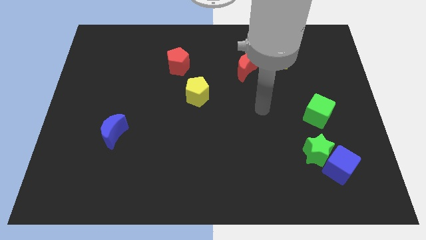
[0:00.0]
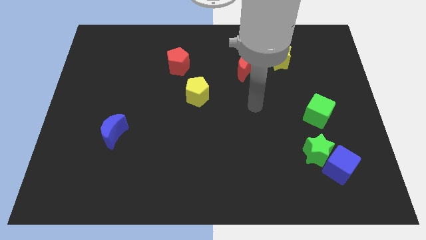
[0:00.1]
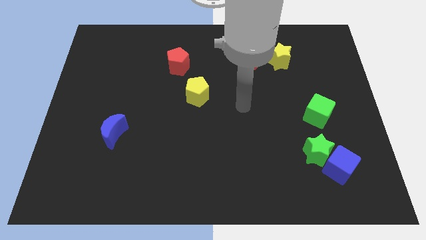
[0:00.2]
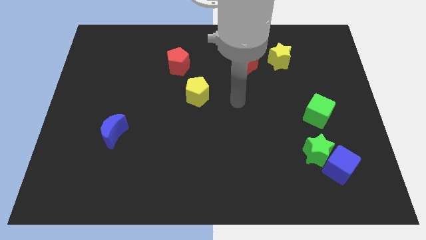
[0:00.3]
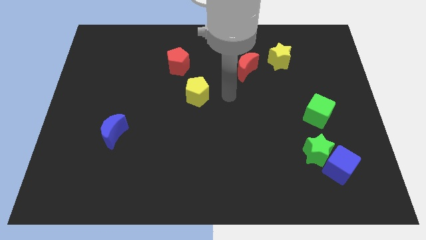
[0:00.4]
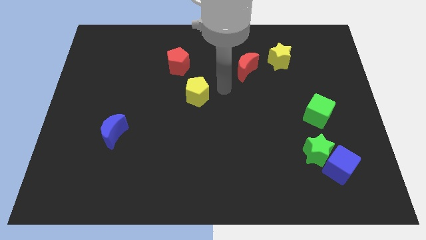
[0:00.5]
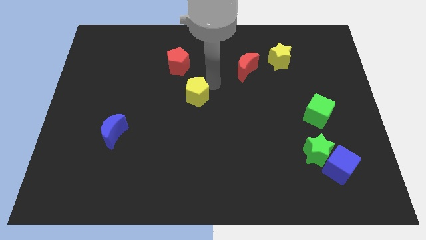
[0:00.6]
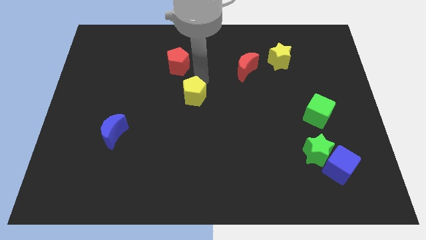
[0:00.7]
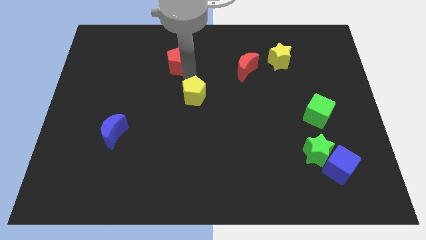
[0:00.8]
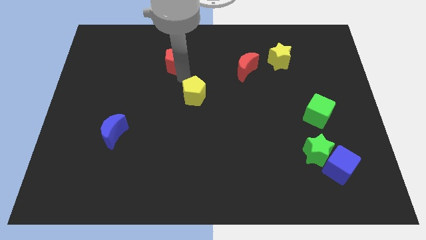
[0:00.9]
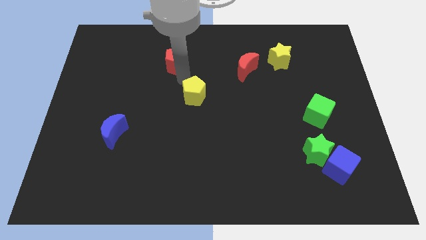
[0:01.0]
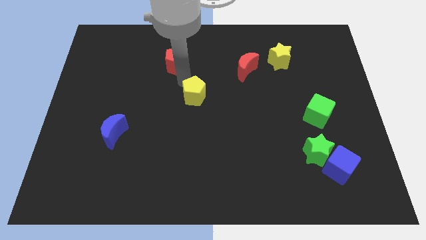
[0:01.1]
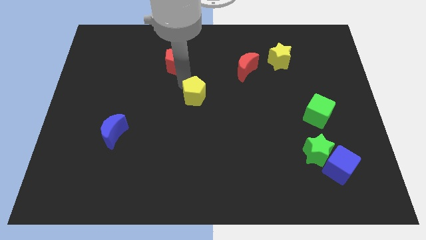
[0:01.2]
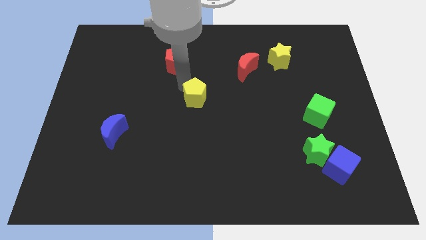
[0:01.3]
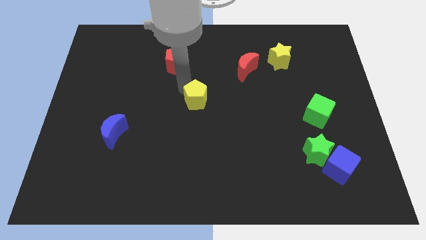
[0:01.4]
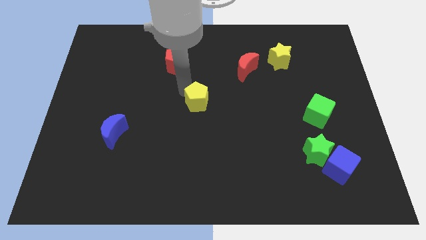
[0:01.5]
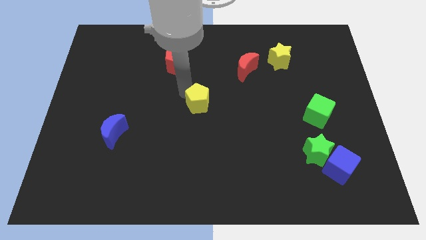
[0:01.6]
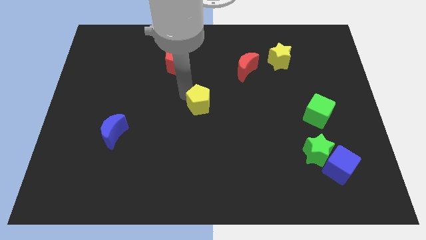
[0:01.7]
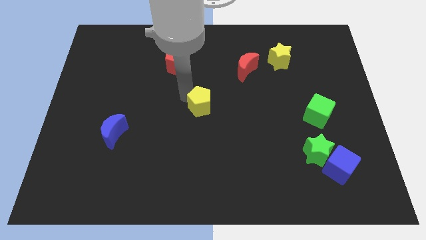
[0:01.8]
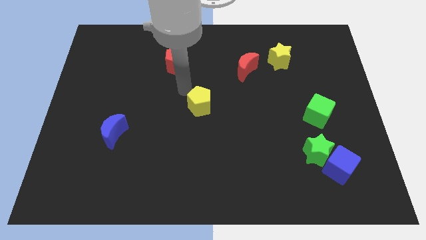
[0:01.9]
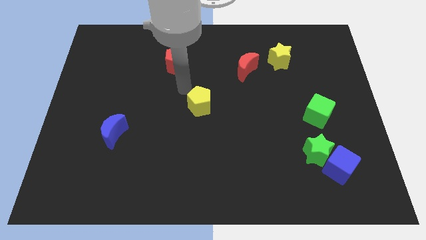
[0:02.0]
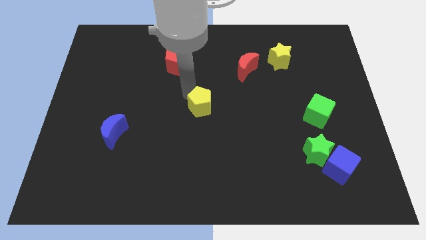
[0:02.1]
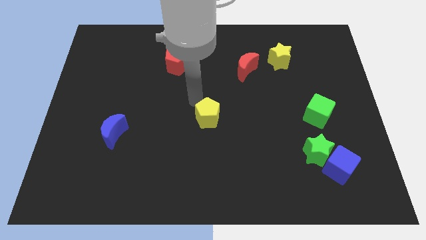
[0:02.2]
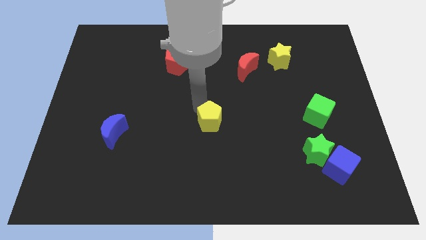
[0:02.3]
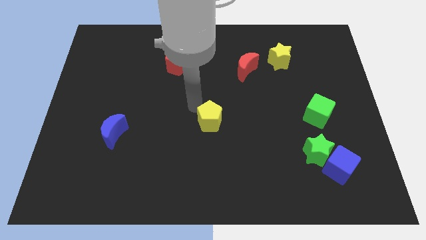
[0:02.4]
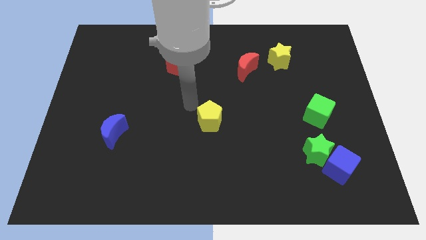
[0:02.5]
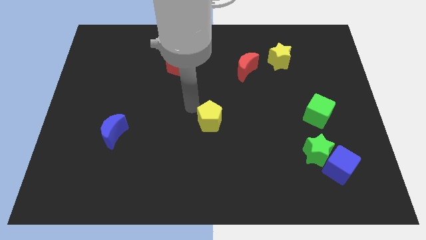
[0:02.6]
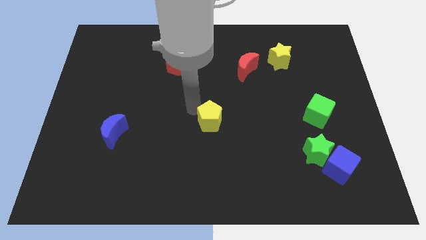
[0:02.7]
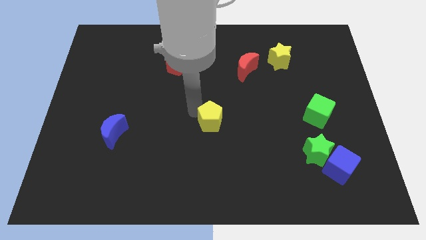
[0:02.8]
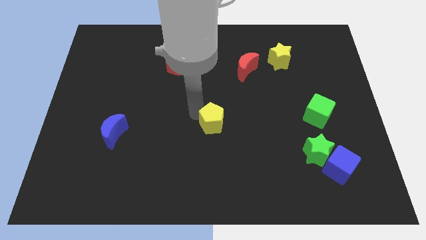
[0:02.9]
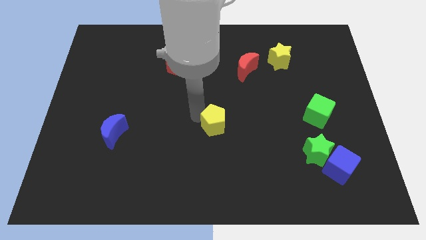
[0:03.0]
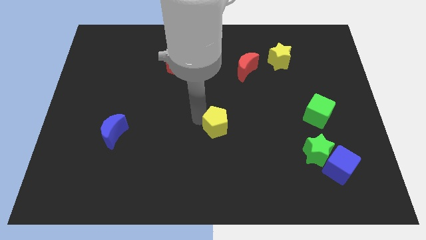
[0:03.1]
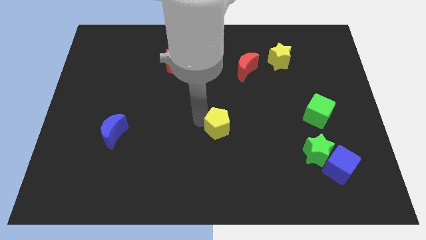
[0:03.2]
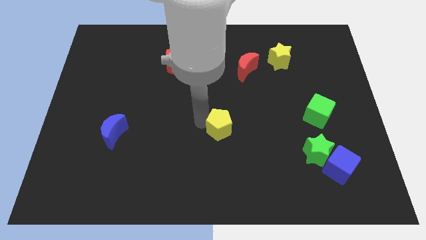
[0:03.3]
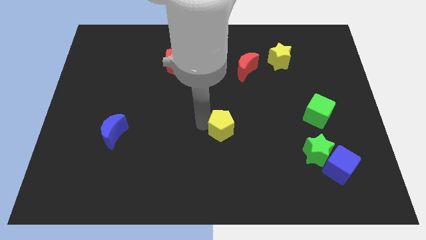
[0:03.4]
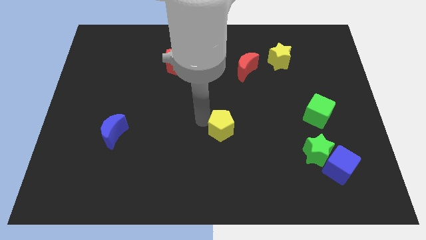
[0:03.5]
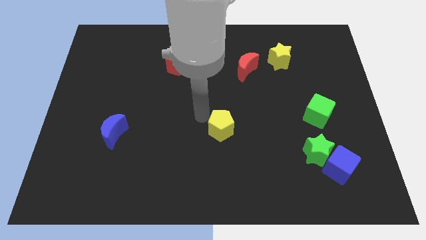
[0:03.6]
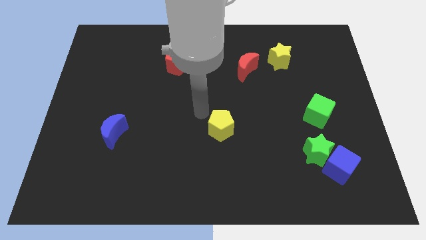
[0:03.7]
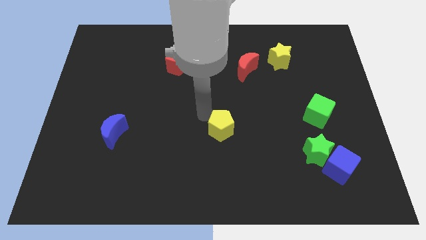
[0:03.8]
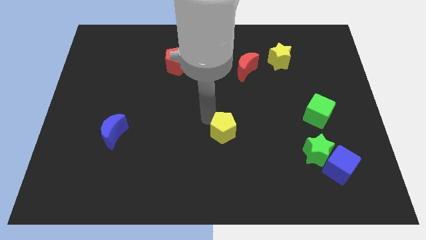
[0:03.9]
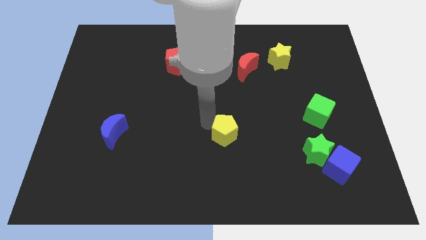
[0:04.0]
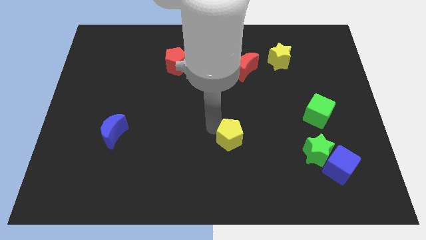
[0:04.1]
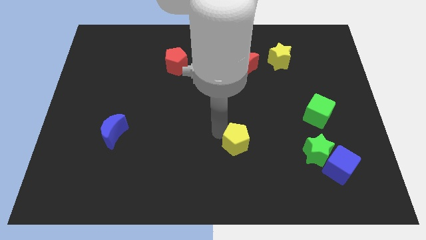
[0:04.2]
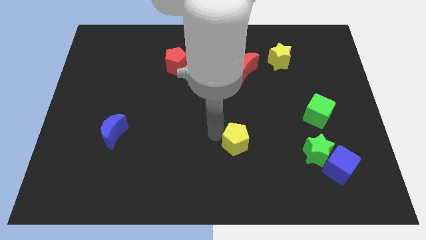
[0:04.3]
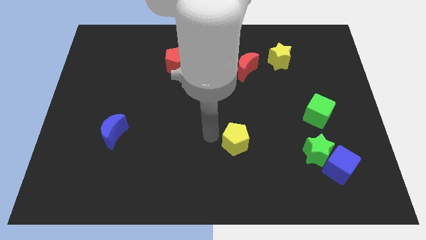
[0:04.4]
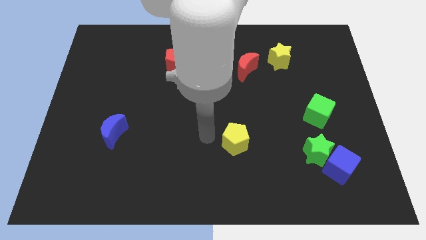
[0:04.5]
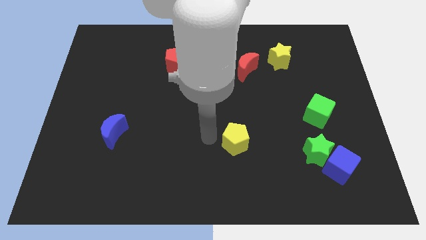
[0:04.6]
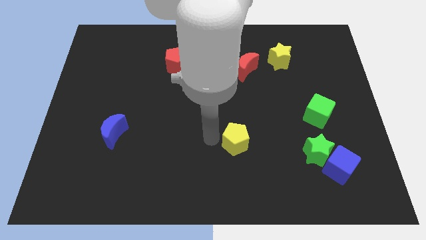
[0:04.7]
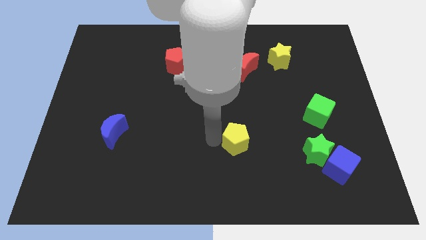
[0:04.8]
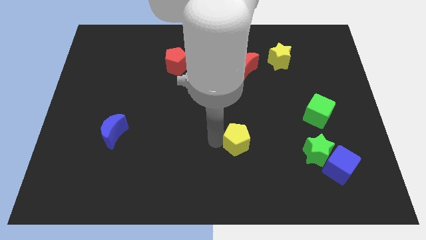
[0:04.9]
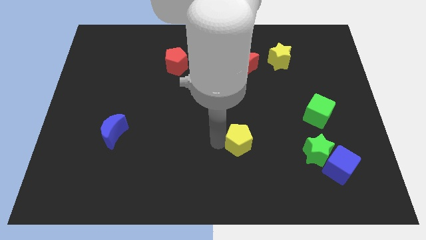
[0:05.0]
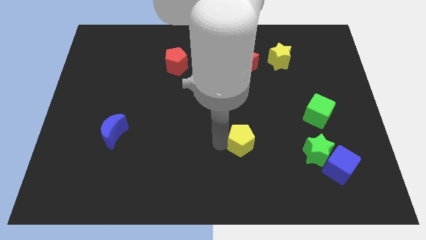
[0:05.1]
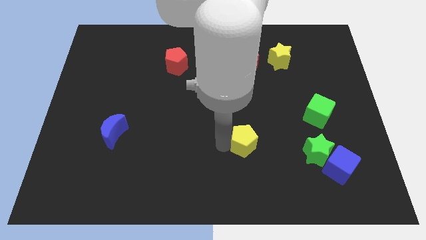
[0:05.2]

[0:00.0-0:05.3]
move the yellow pentagon to the left side of the green star

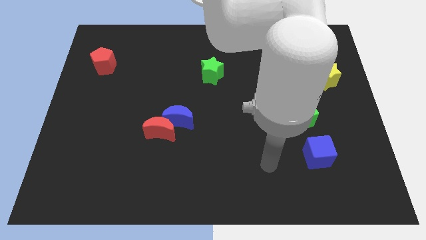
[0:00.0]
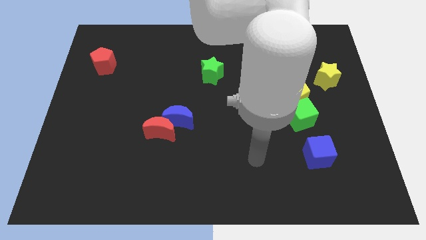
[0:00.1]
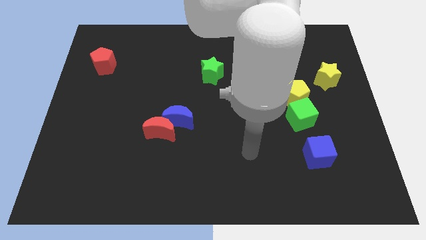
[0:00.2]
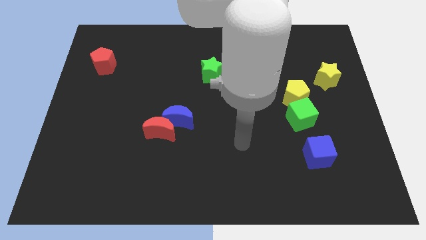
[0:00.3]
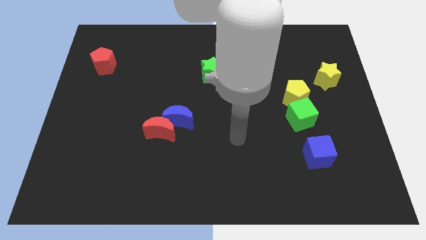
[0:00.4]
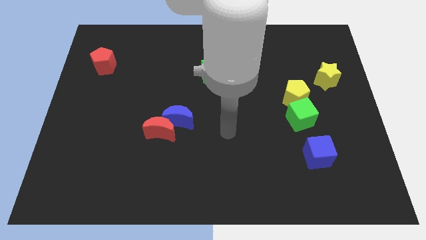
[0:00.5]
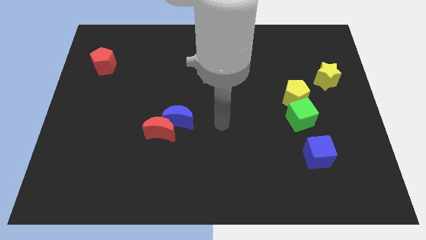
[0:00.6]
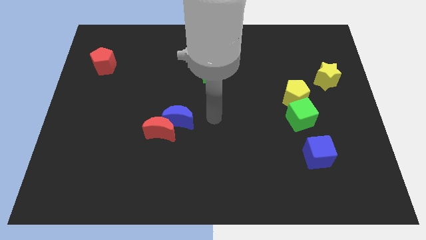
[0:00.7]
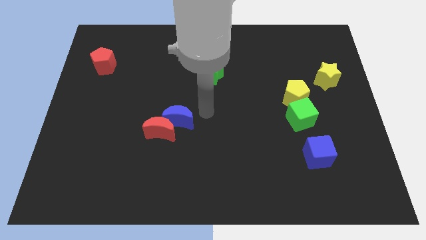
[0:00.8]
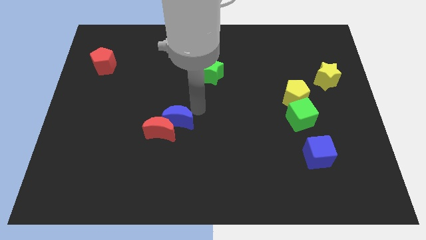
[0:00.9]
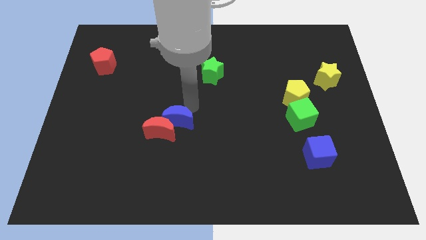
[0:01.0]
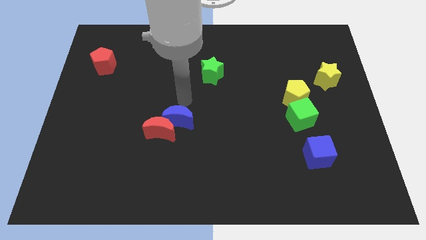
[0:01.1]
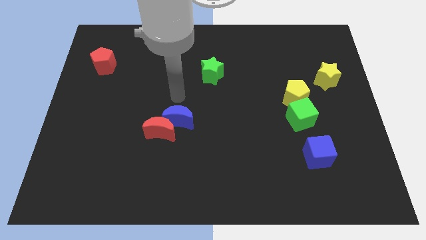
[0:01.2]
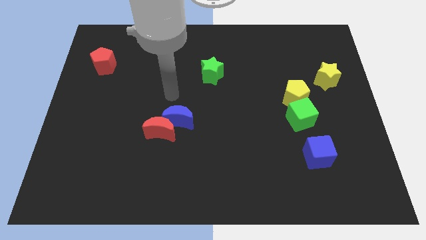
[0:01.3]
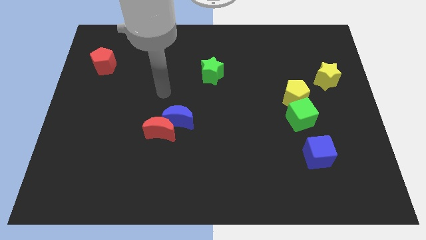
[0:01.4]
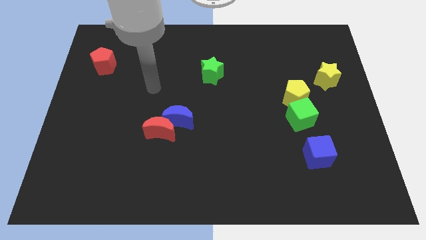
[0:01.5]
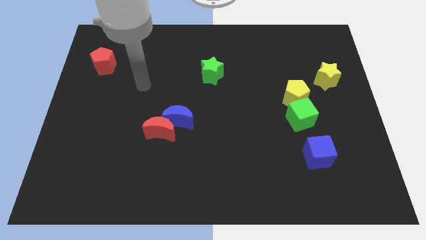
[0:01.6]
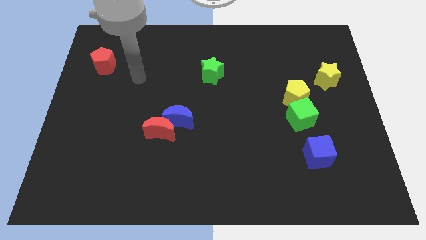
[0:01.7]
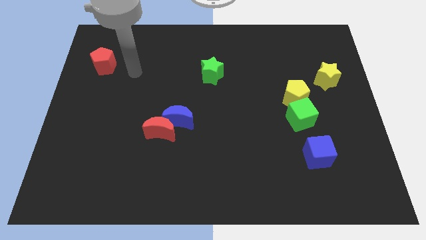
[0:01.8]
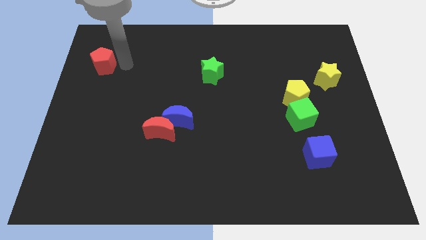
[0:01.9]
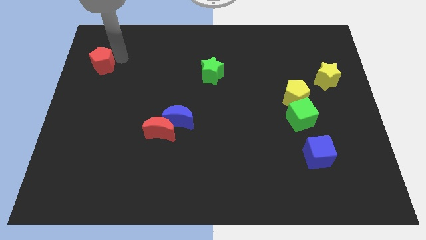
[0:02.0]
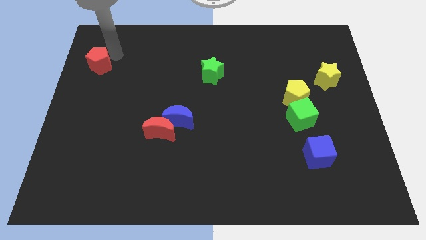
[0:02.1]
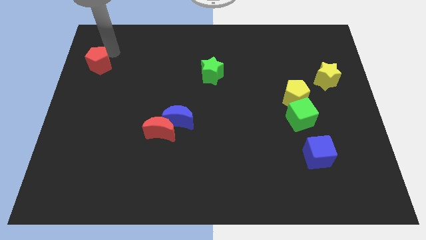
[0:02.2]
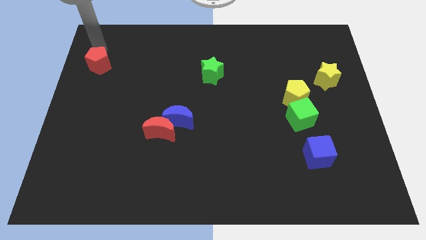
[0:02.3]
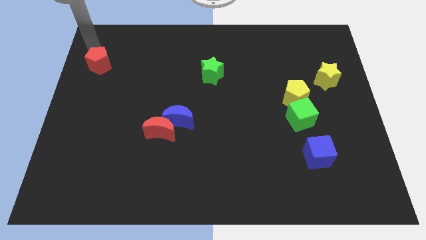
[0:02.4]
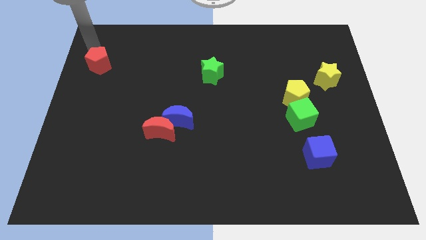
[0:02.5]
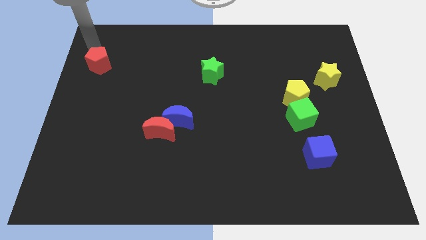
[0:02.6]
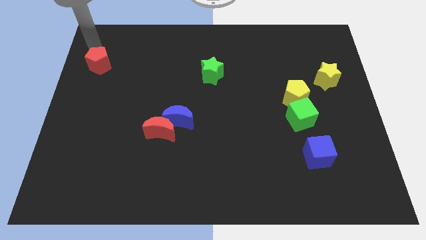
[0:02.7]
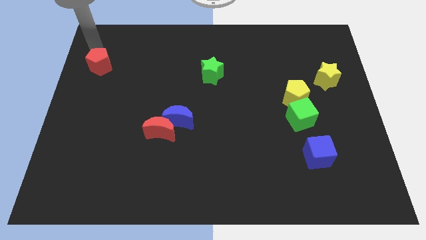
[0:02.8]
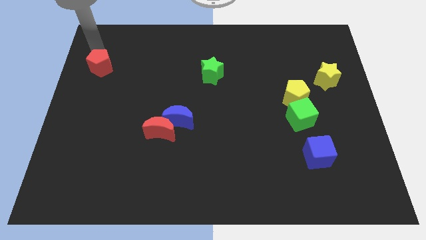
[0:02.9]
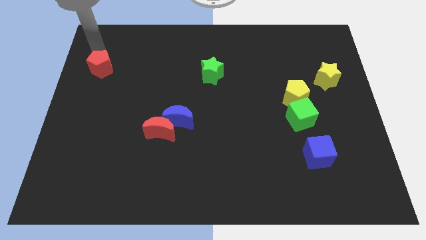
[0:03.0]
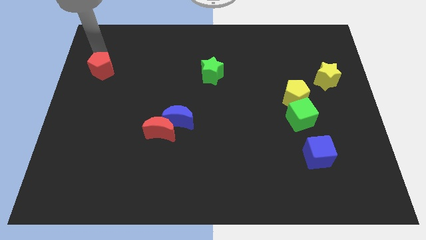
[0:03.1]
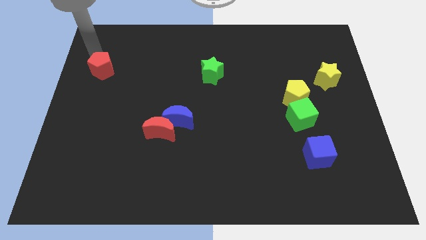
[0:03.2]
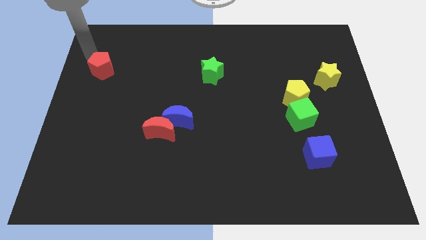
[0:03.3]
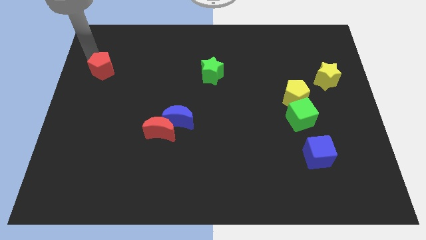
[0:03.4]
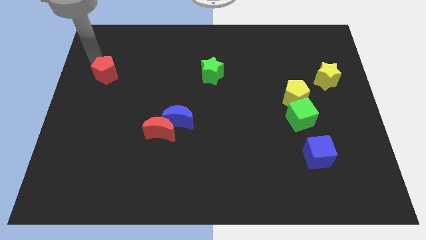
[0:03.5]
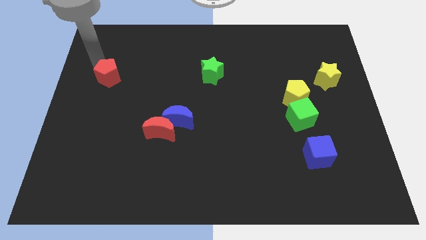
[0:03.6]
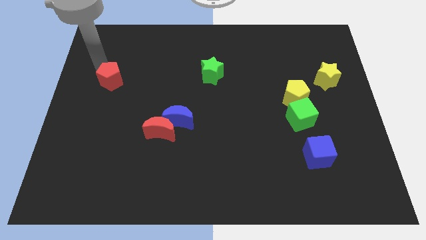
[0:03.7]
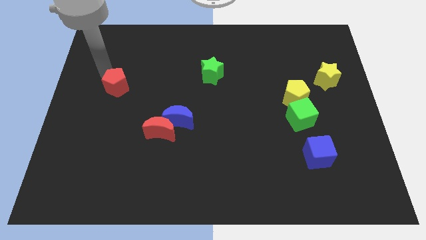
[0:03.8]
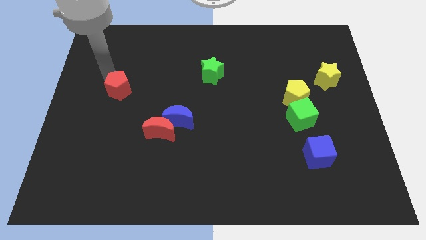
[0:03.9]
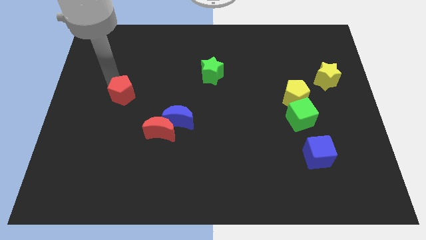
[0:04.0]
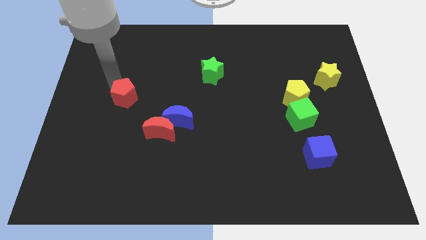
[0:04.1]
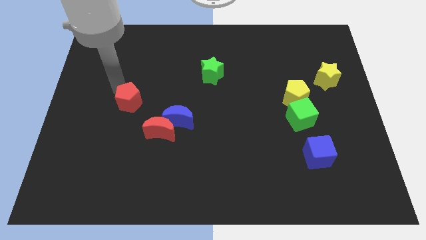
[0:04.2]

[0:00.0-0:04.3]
put the red pentagon to the top left of the red moon
